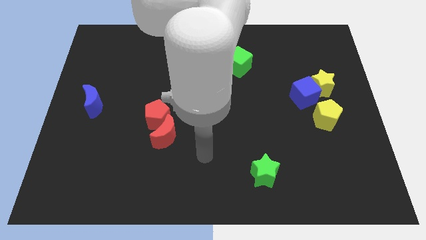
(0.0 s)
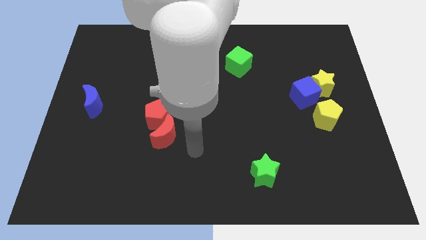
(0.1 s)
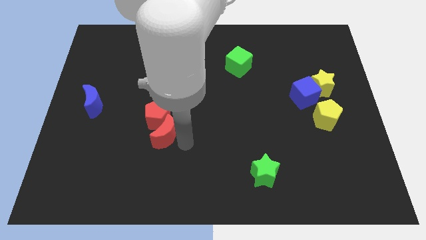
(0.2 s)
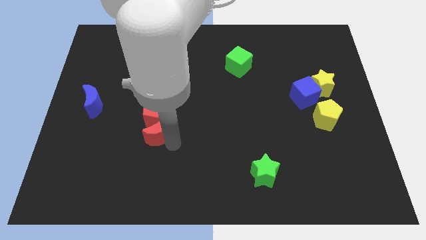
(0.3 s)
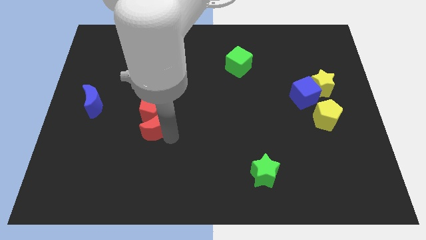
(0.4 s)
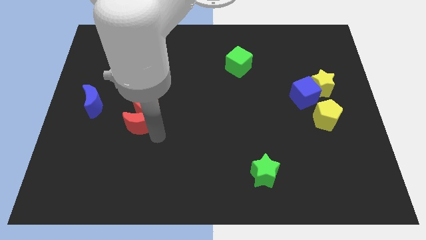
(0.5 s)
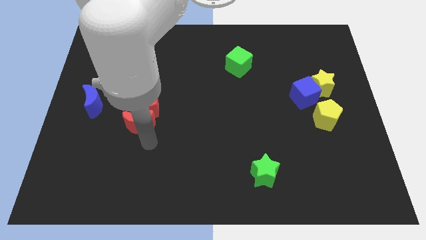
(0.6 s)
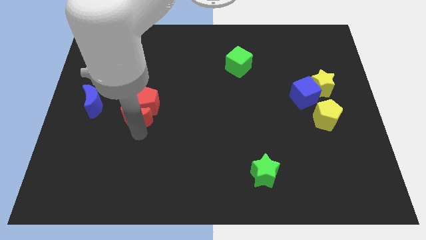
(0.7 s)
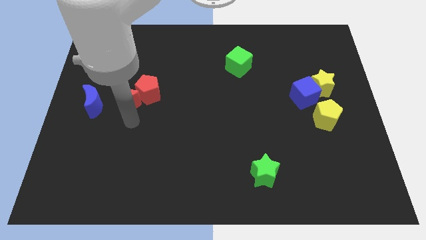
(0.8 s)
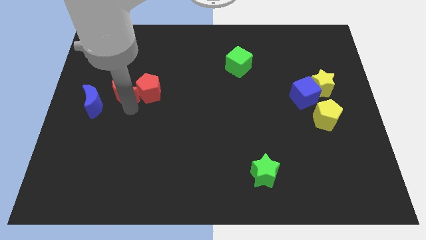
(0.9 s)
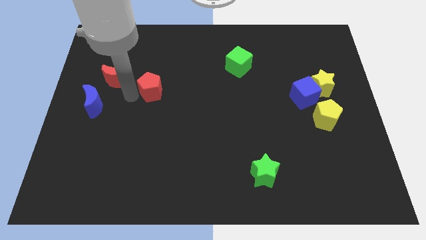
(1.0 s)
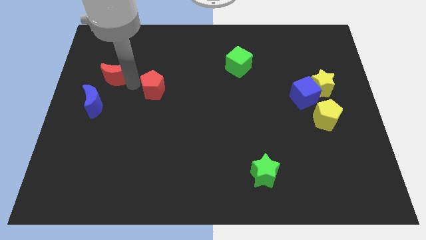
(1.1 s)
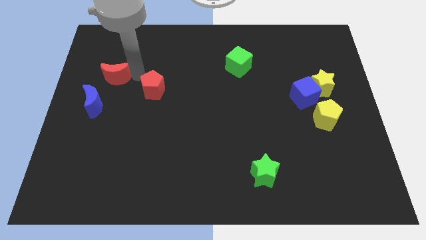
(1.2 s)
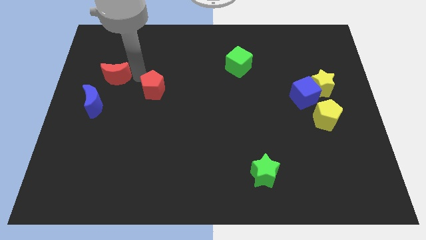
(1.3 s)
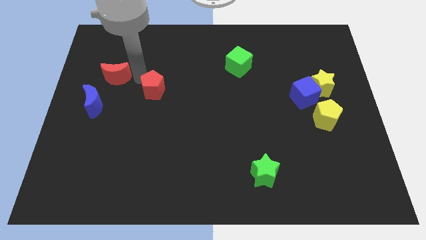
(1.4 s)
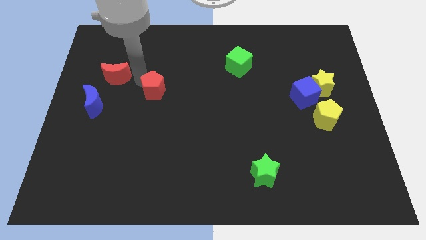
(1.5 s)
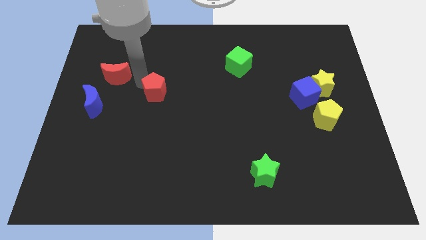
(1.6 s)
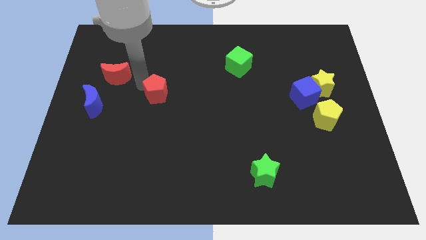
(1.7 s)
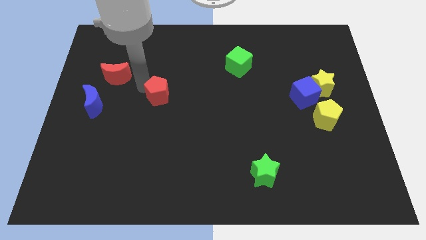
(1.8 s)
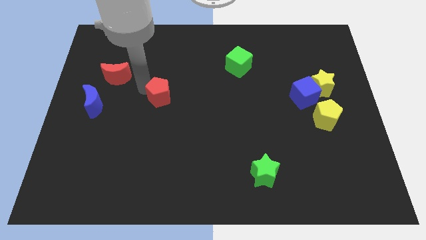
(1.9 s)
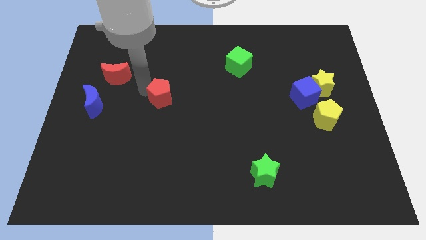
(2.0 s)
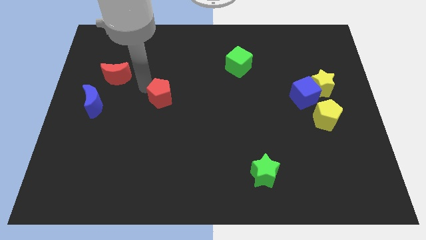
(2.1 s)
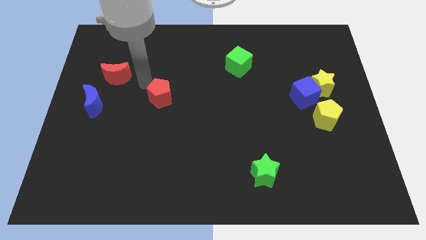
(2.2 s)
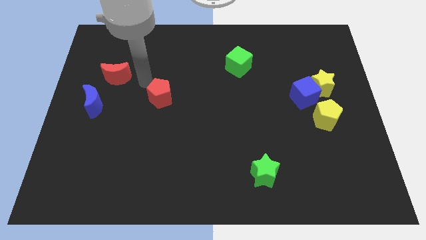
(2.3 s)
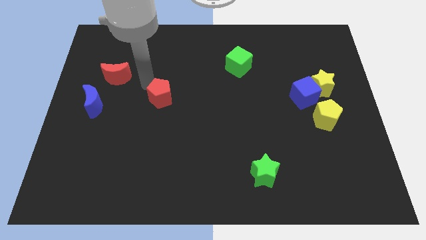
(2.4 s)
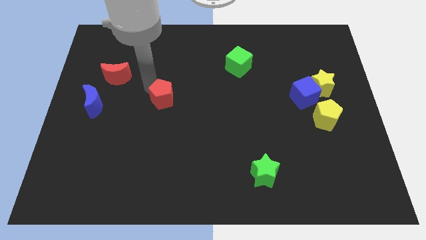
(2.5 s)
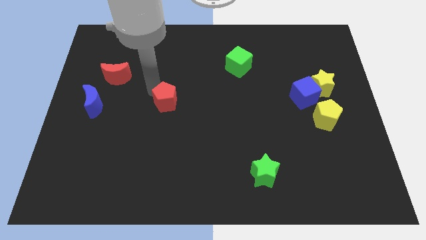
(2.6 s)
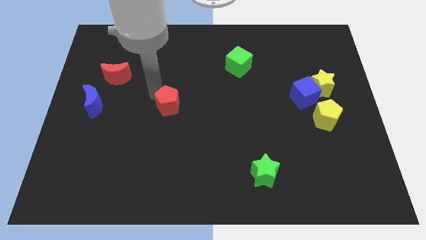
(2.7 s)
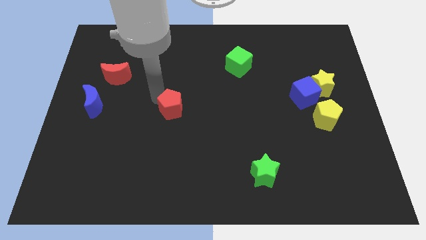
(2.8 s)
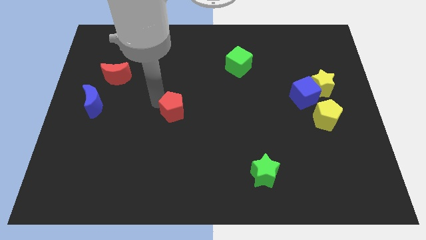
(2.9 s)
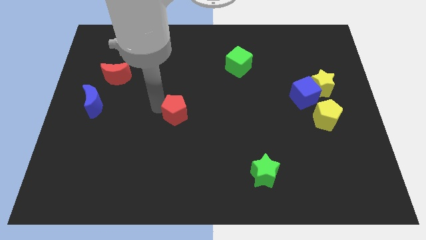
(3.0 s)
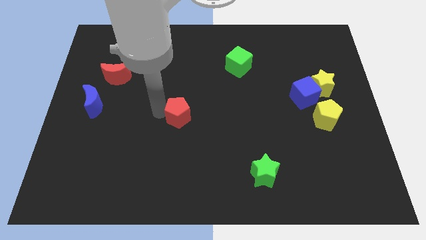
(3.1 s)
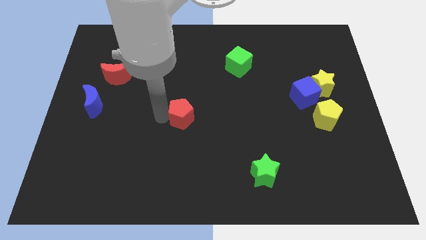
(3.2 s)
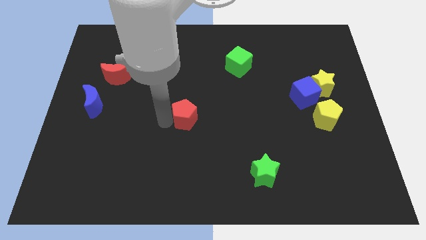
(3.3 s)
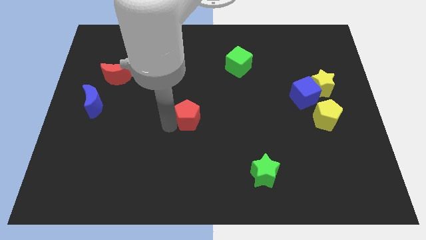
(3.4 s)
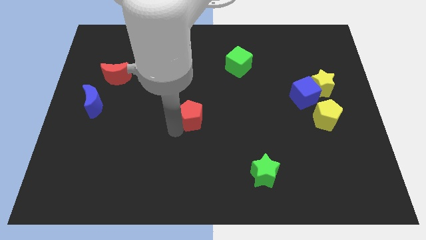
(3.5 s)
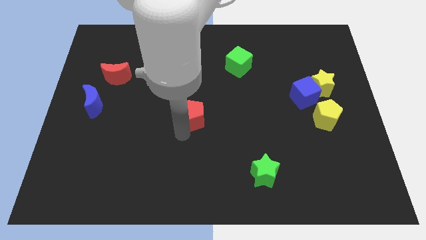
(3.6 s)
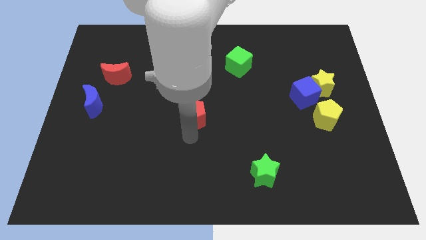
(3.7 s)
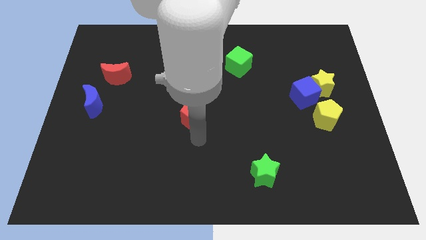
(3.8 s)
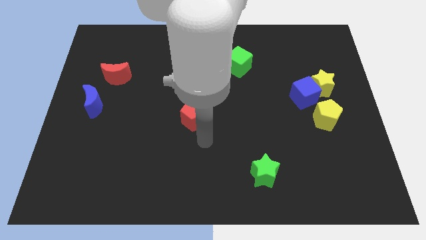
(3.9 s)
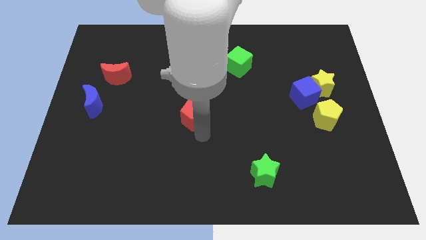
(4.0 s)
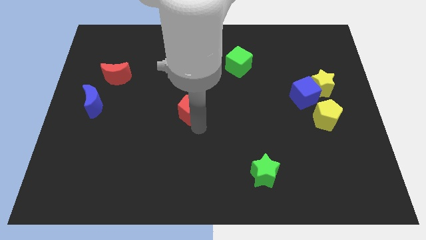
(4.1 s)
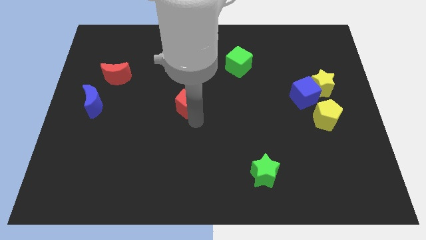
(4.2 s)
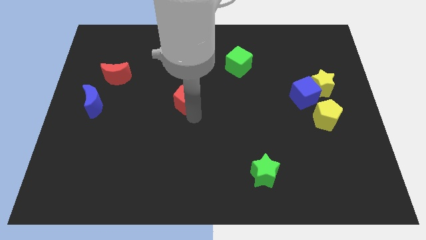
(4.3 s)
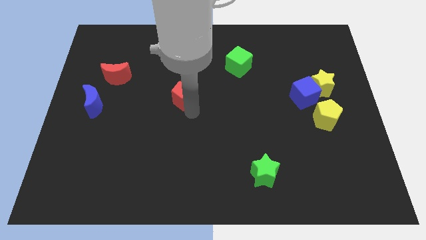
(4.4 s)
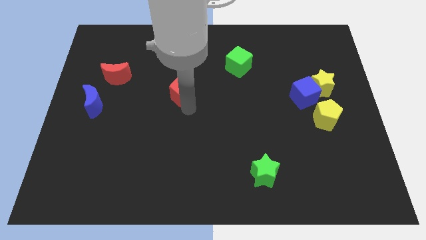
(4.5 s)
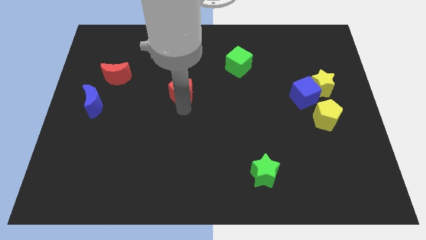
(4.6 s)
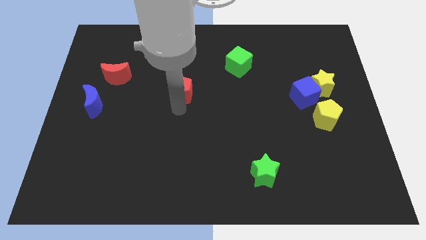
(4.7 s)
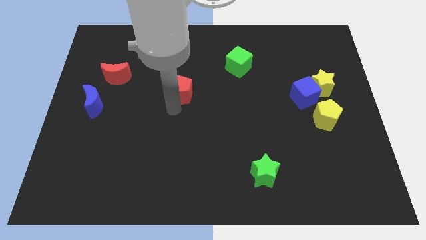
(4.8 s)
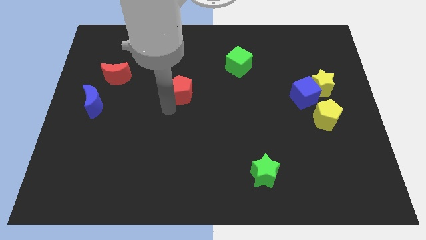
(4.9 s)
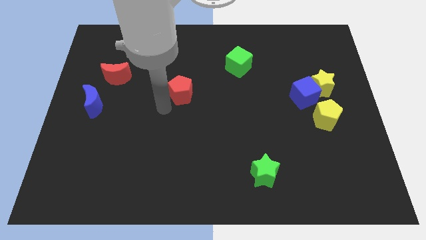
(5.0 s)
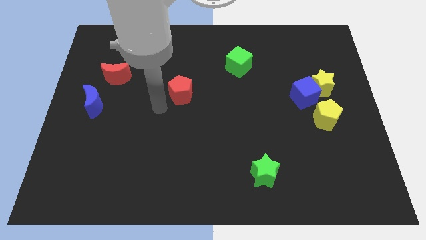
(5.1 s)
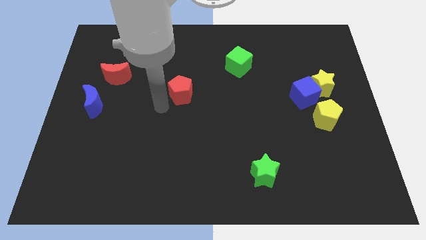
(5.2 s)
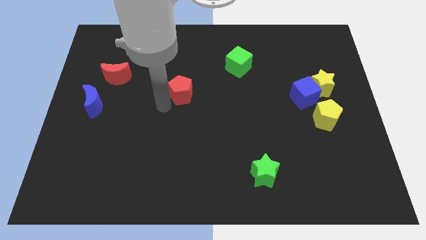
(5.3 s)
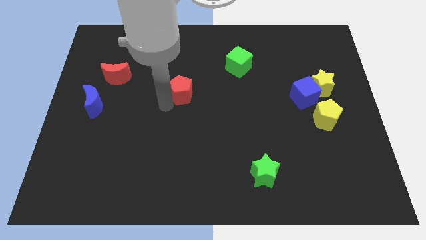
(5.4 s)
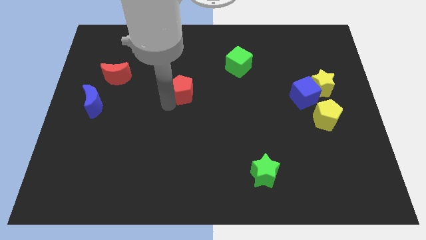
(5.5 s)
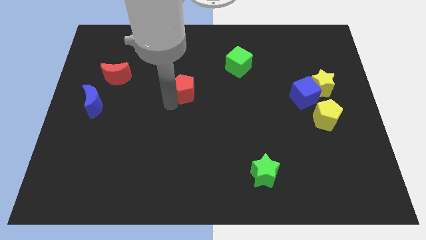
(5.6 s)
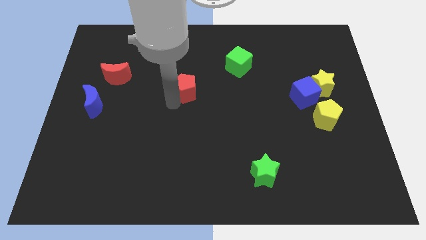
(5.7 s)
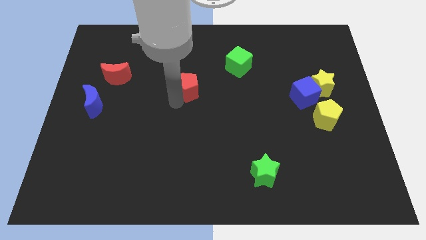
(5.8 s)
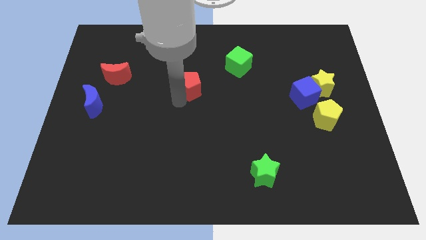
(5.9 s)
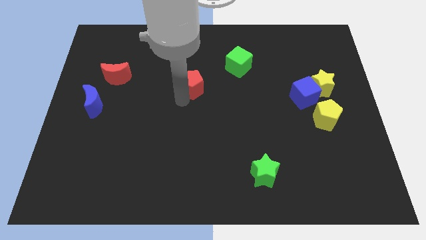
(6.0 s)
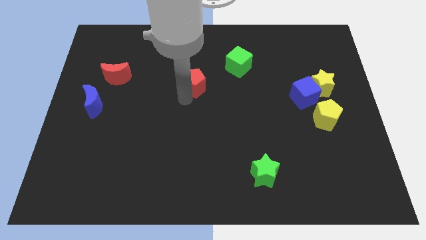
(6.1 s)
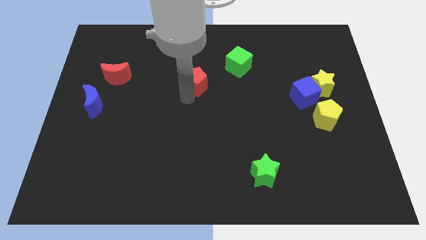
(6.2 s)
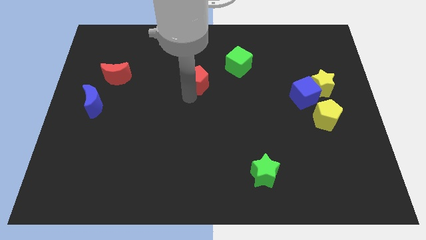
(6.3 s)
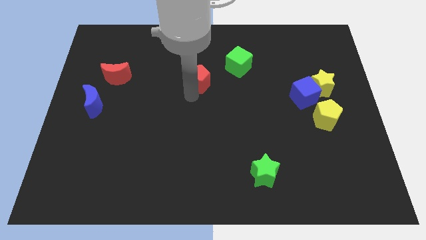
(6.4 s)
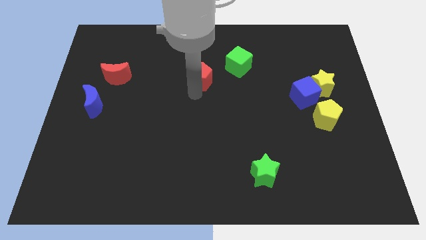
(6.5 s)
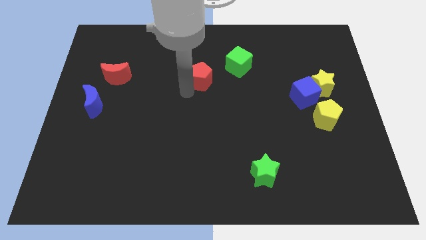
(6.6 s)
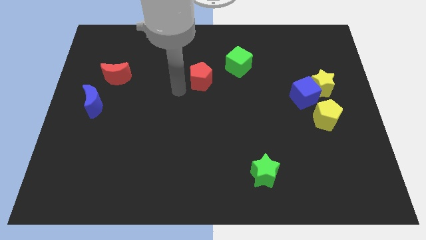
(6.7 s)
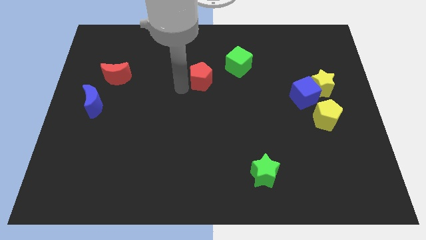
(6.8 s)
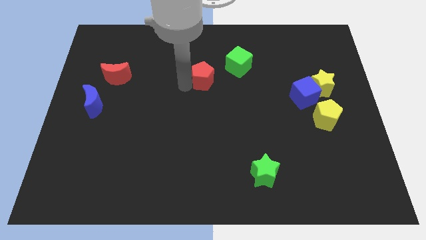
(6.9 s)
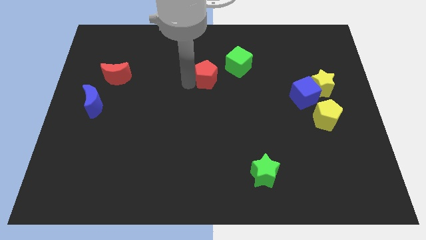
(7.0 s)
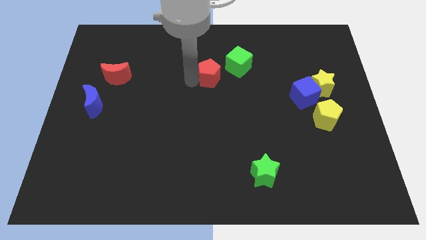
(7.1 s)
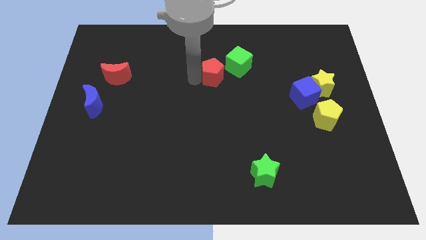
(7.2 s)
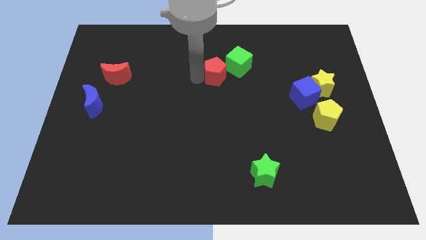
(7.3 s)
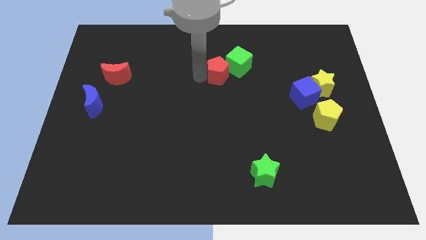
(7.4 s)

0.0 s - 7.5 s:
move the red pentagon to the green cube

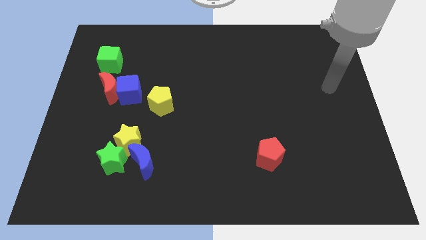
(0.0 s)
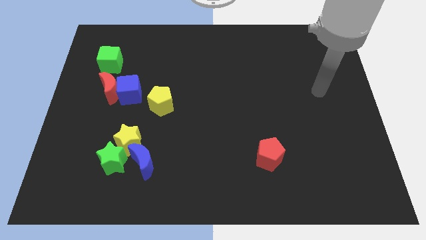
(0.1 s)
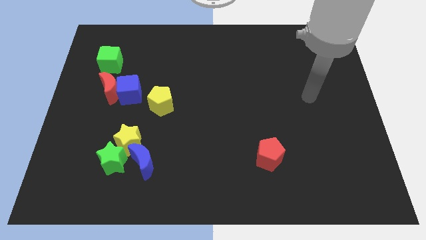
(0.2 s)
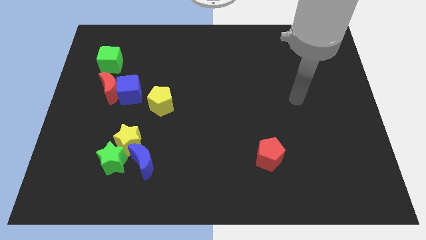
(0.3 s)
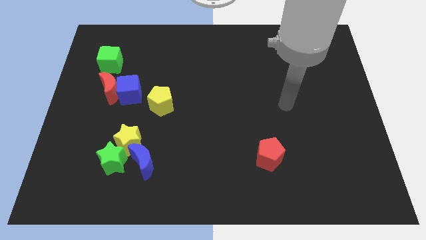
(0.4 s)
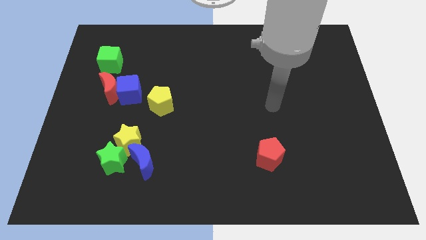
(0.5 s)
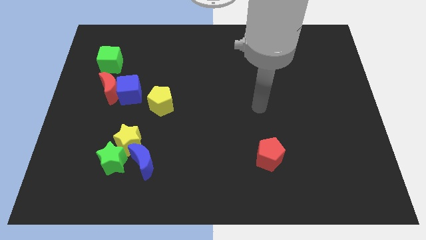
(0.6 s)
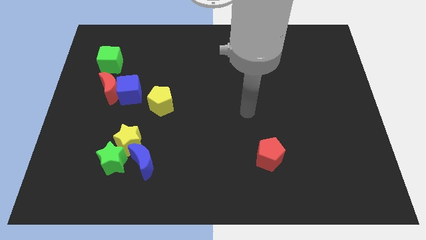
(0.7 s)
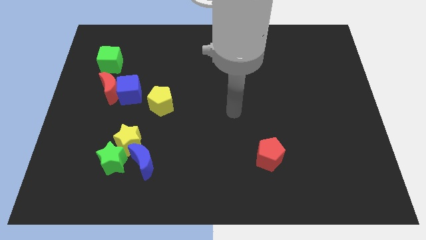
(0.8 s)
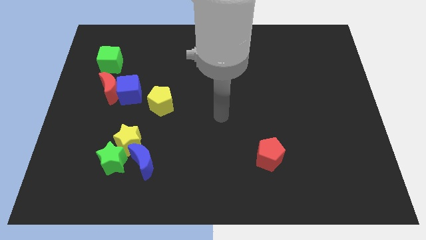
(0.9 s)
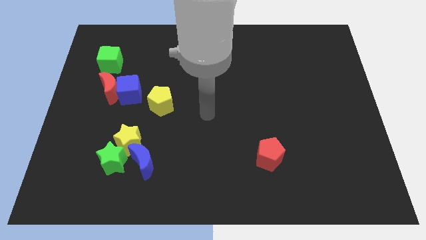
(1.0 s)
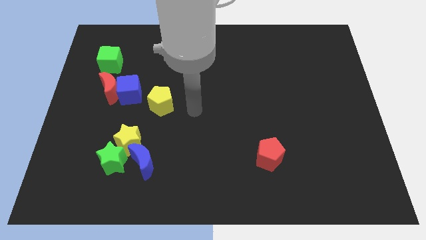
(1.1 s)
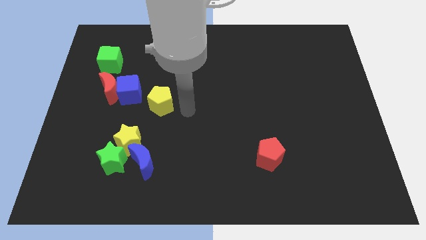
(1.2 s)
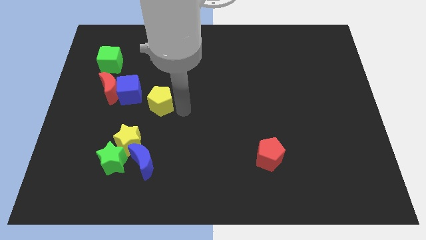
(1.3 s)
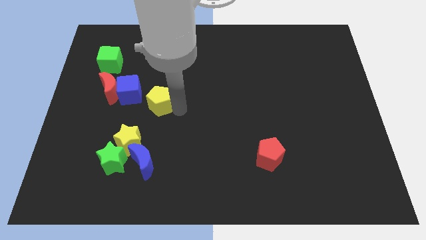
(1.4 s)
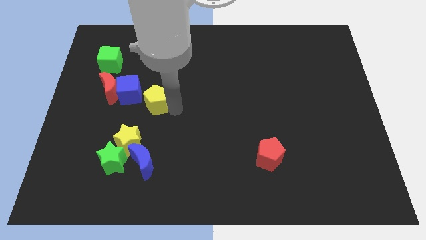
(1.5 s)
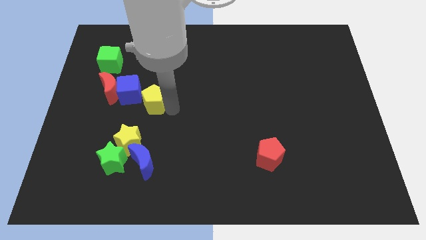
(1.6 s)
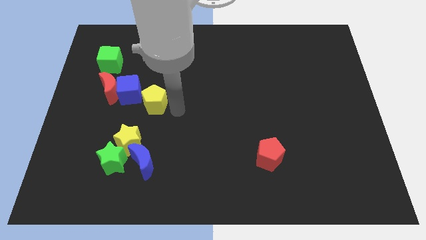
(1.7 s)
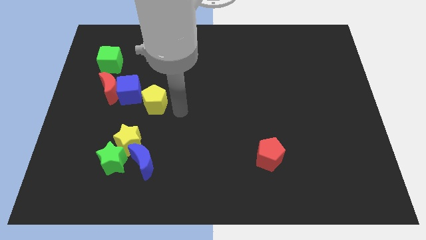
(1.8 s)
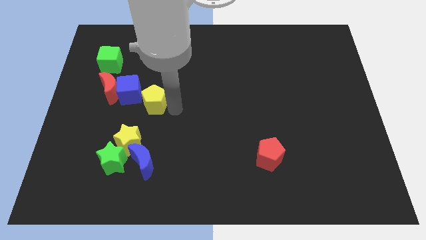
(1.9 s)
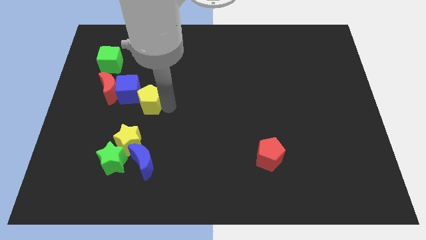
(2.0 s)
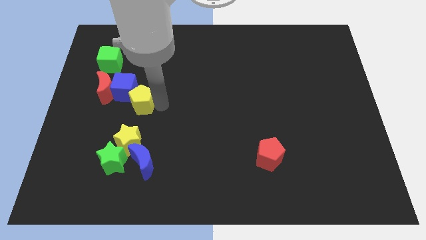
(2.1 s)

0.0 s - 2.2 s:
move the yellow pentagon close to the blue cube
